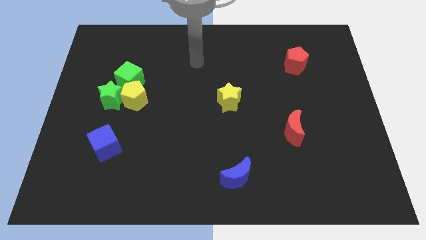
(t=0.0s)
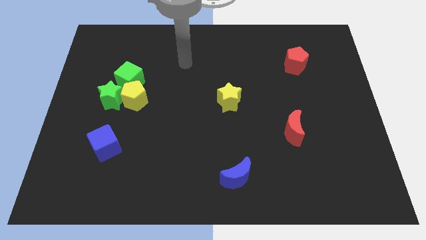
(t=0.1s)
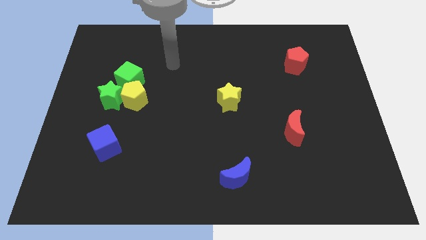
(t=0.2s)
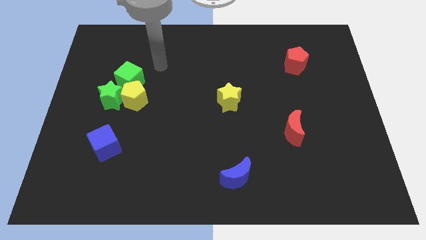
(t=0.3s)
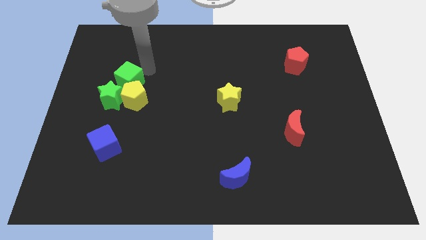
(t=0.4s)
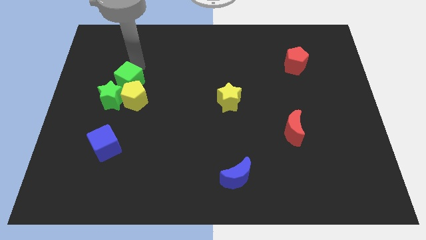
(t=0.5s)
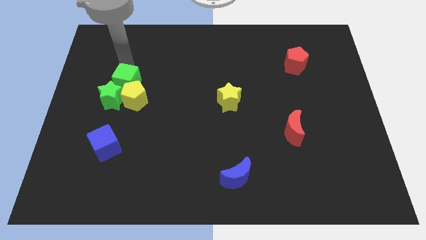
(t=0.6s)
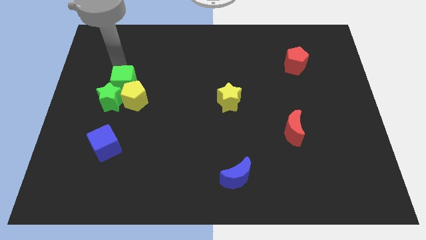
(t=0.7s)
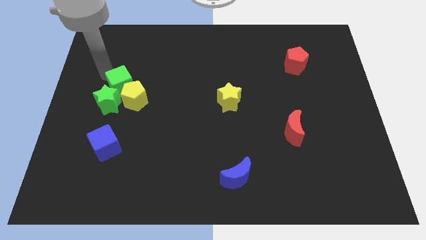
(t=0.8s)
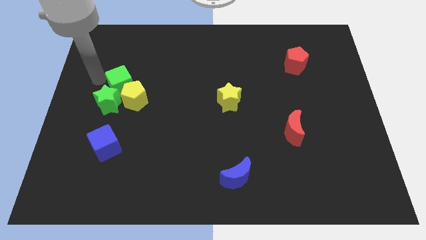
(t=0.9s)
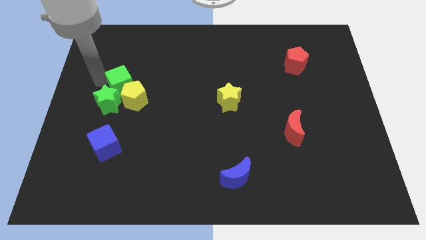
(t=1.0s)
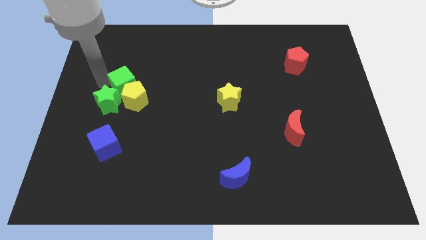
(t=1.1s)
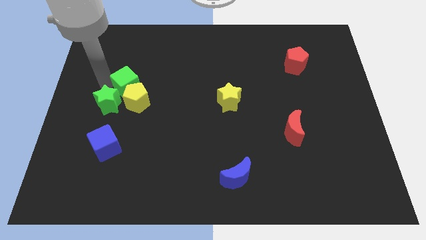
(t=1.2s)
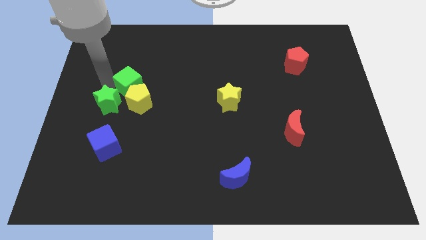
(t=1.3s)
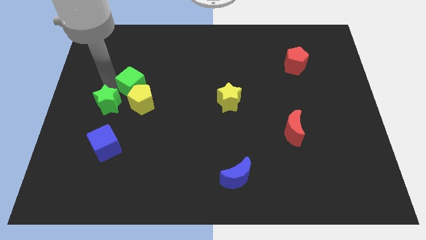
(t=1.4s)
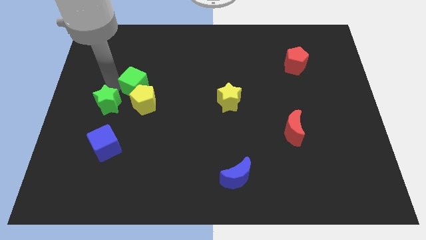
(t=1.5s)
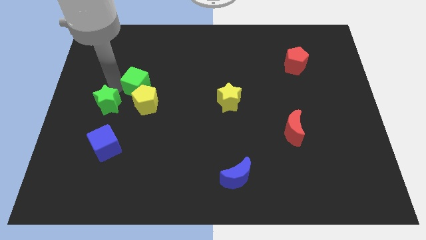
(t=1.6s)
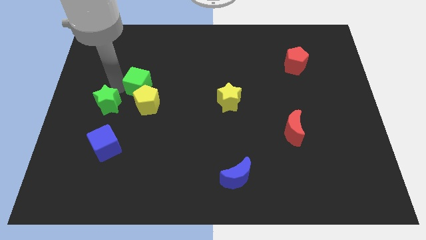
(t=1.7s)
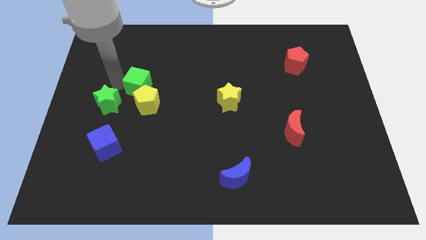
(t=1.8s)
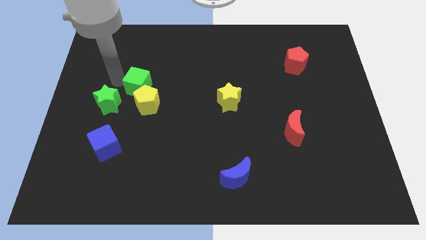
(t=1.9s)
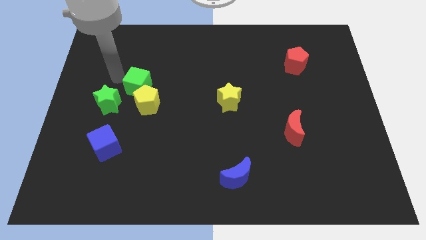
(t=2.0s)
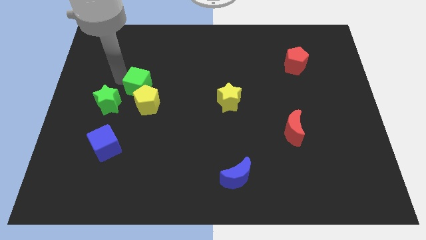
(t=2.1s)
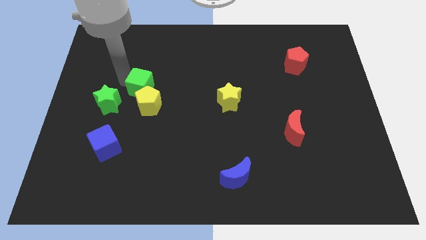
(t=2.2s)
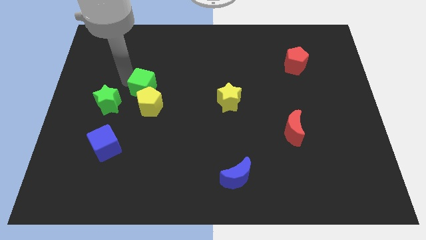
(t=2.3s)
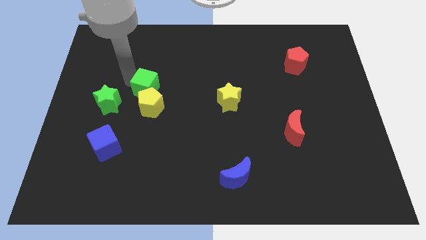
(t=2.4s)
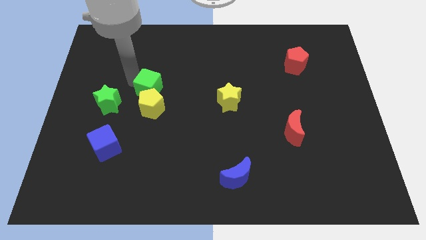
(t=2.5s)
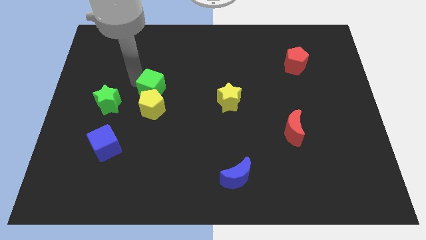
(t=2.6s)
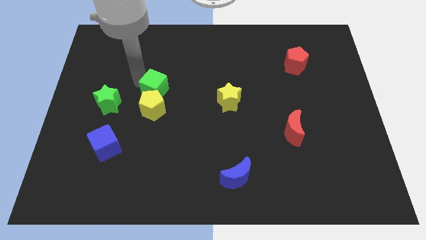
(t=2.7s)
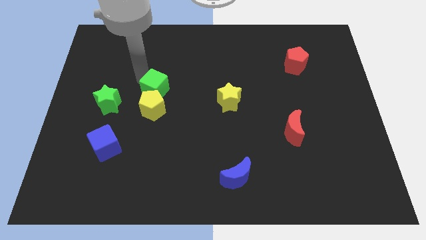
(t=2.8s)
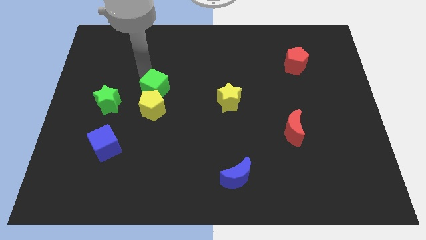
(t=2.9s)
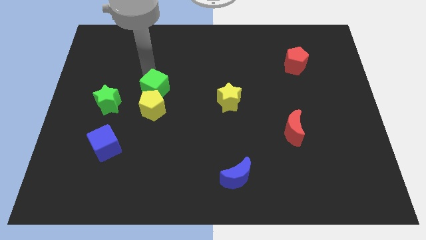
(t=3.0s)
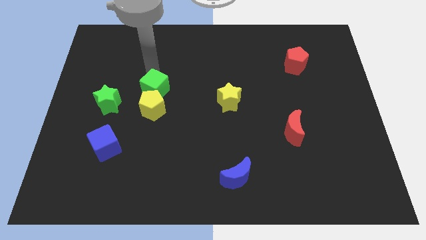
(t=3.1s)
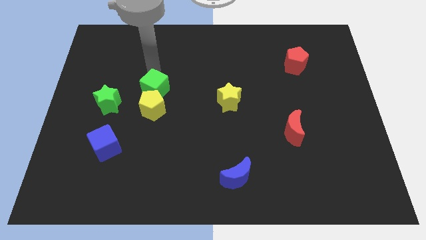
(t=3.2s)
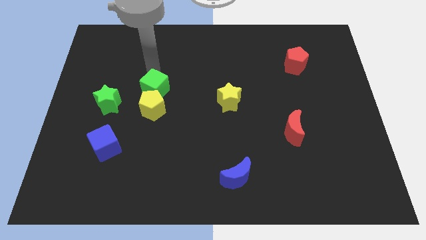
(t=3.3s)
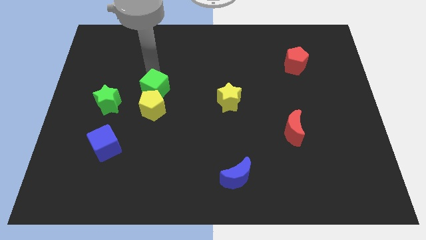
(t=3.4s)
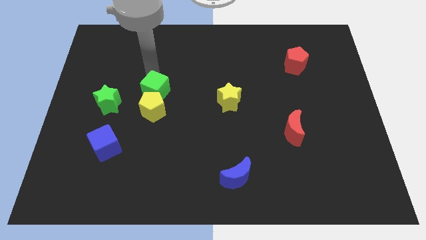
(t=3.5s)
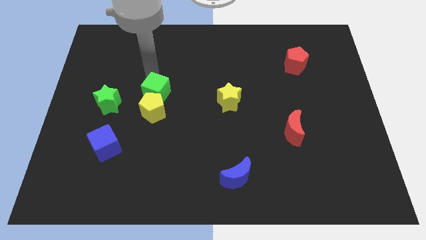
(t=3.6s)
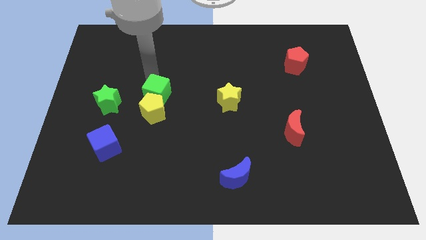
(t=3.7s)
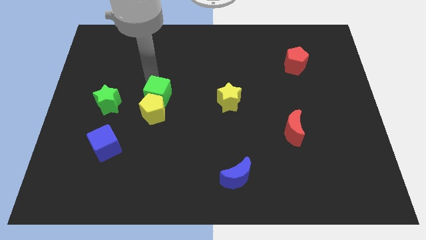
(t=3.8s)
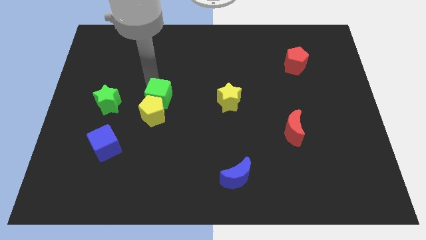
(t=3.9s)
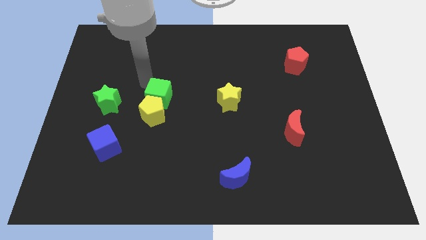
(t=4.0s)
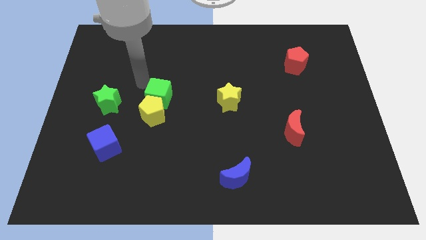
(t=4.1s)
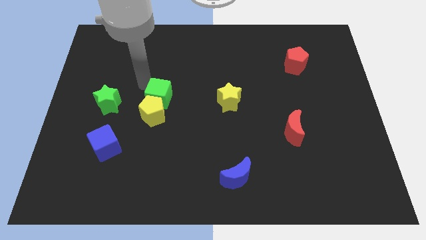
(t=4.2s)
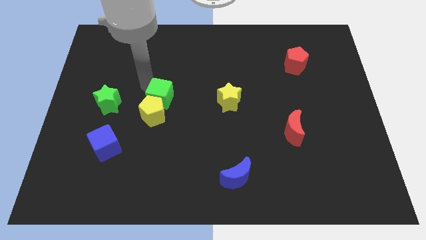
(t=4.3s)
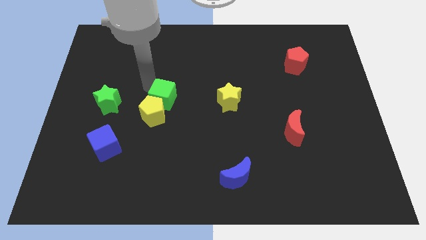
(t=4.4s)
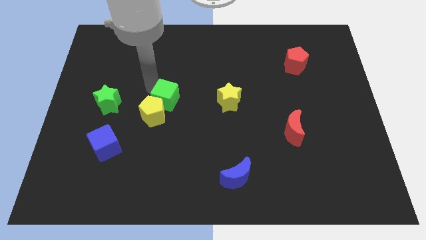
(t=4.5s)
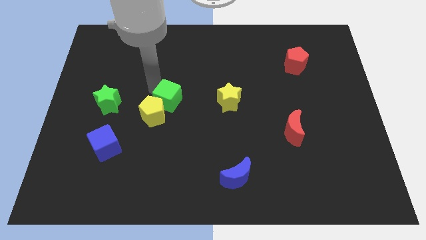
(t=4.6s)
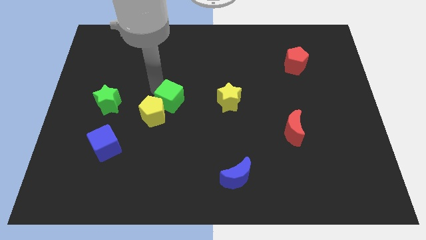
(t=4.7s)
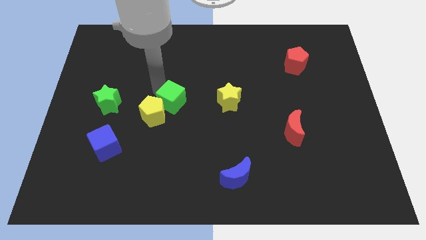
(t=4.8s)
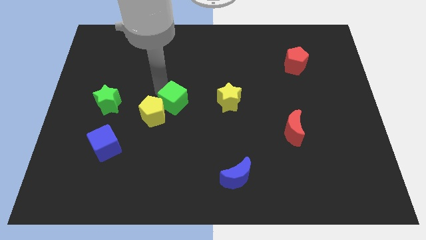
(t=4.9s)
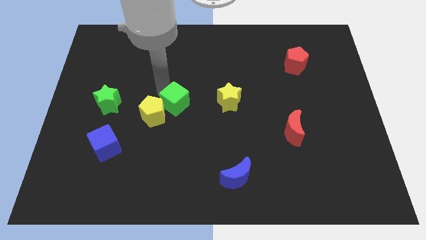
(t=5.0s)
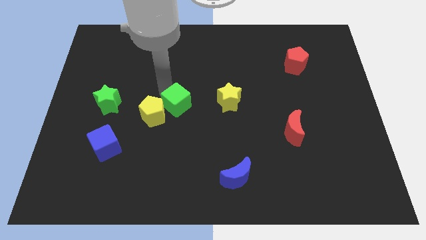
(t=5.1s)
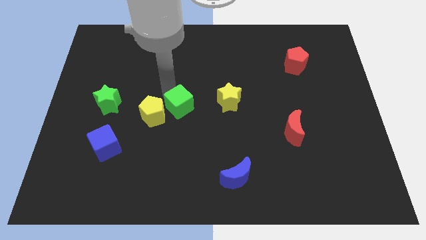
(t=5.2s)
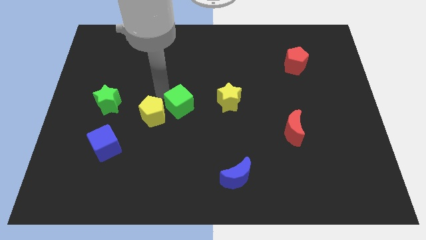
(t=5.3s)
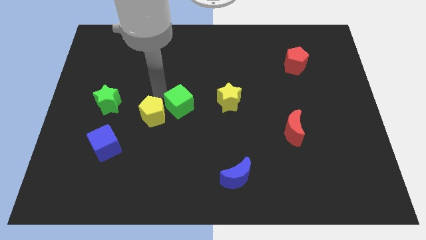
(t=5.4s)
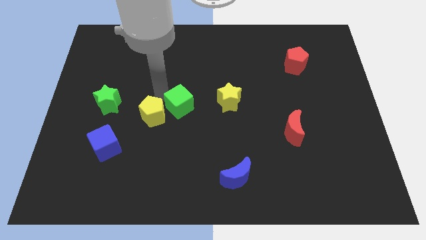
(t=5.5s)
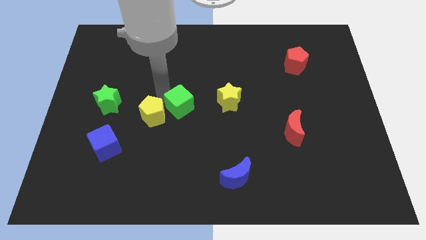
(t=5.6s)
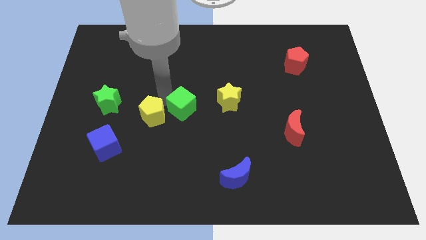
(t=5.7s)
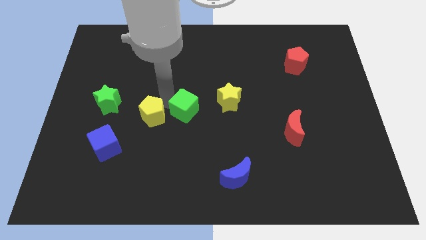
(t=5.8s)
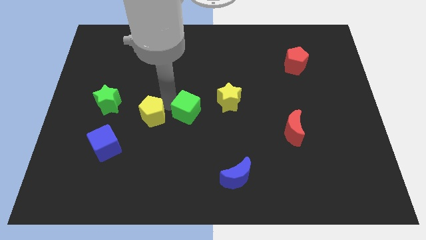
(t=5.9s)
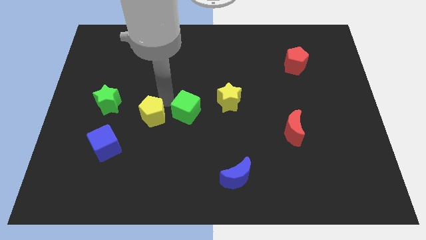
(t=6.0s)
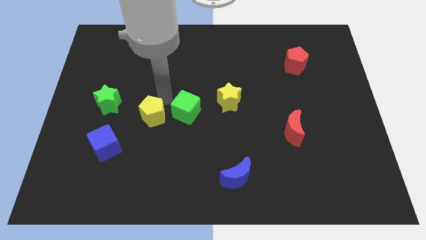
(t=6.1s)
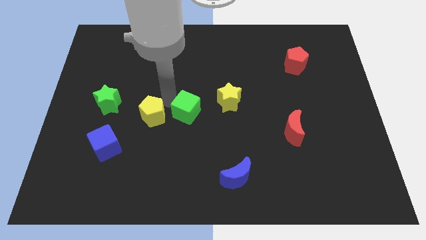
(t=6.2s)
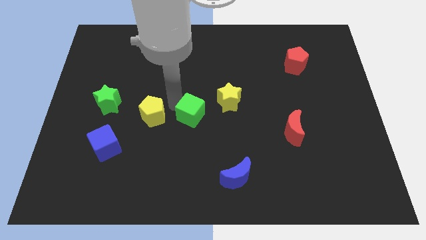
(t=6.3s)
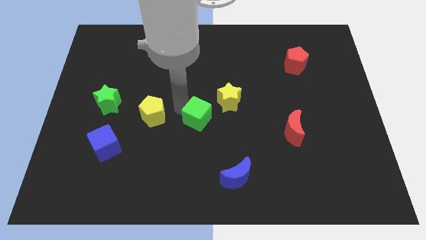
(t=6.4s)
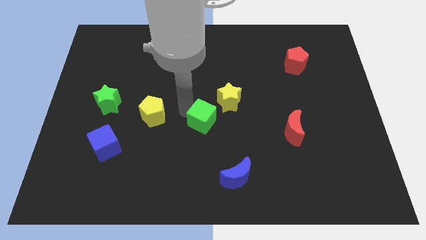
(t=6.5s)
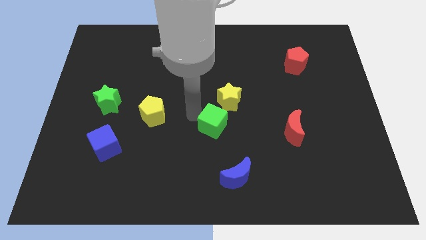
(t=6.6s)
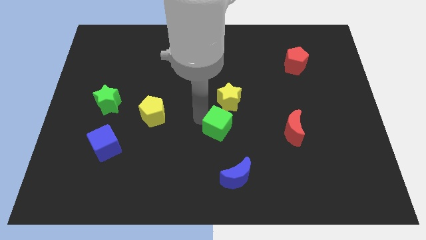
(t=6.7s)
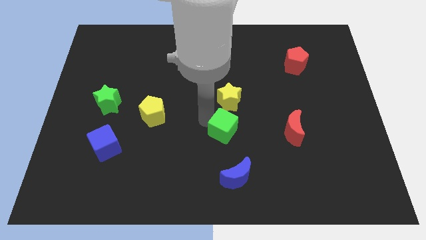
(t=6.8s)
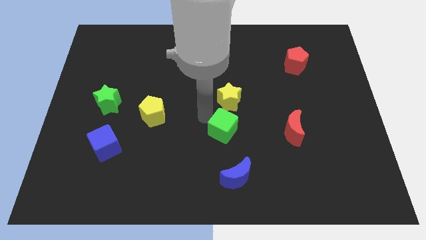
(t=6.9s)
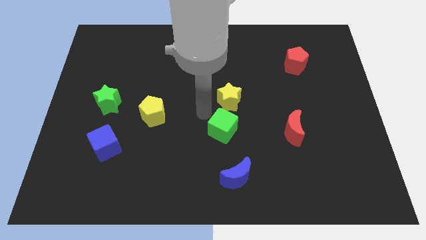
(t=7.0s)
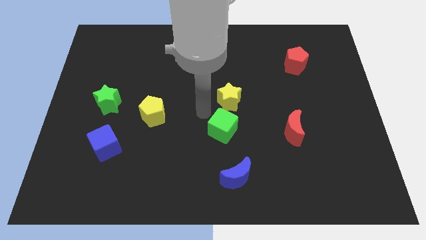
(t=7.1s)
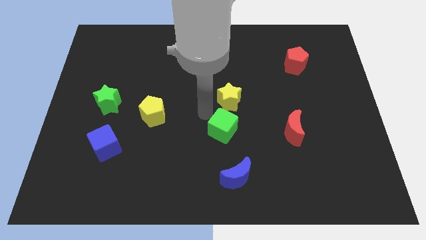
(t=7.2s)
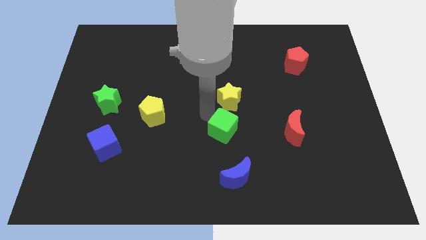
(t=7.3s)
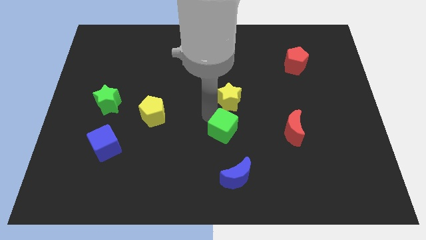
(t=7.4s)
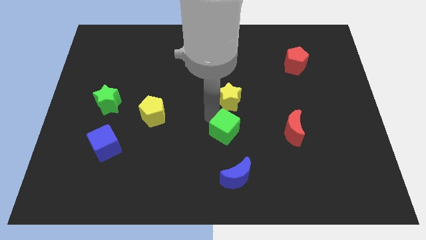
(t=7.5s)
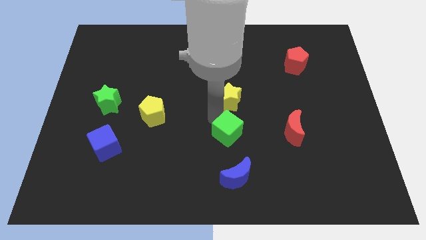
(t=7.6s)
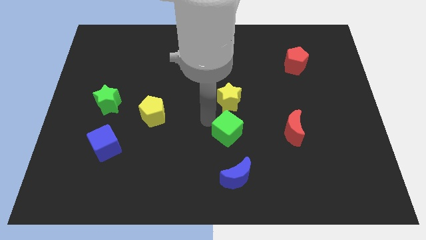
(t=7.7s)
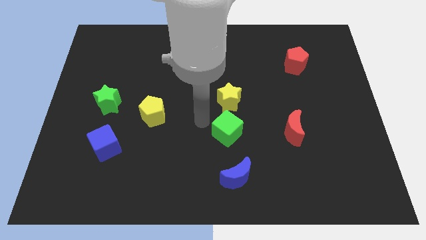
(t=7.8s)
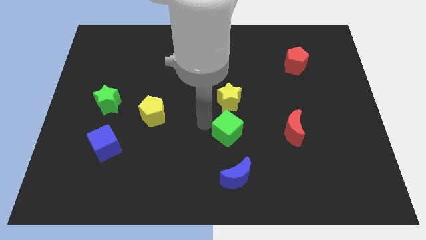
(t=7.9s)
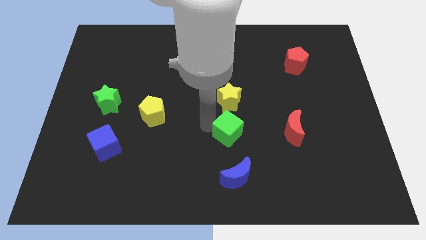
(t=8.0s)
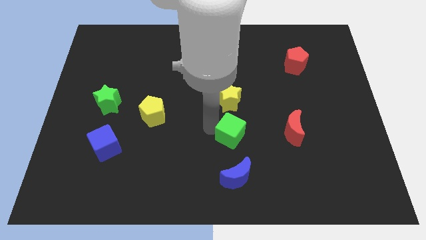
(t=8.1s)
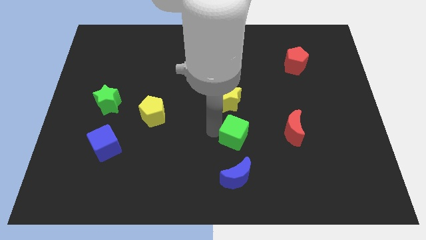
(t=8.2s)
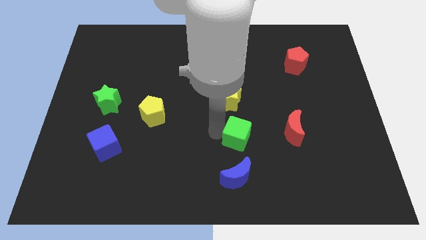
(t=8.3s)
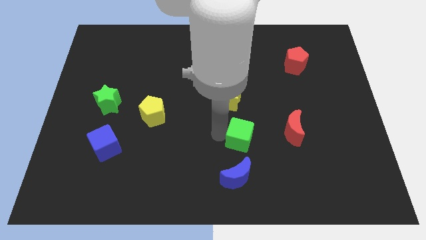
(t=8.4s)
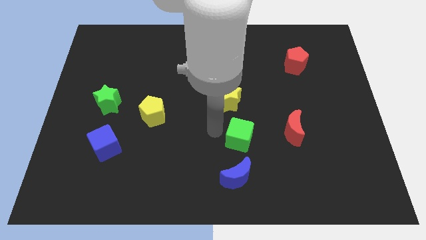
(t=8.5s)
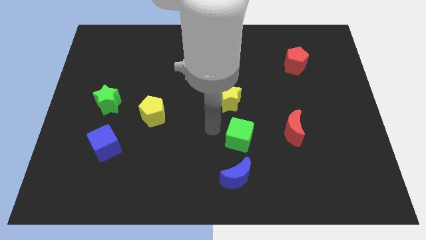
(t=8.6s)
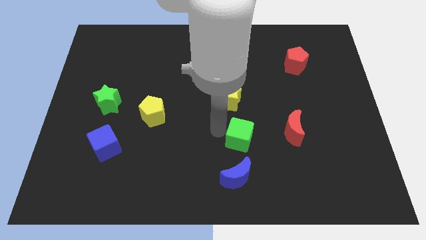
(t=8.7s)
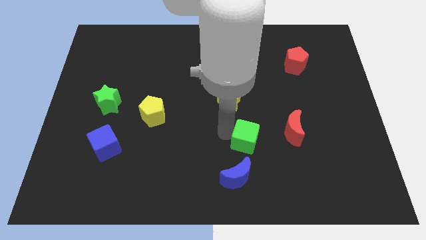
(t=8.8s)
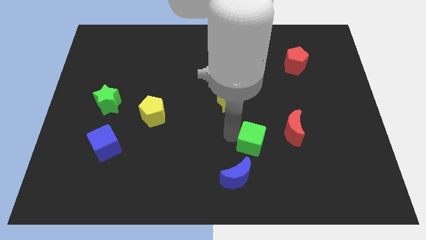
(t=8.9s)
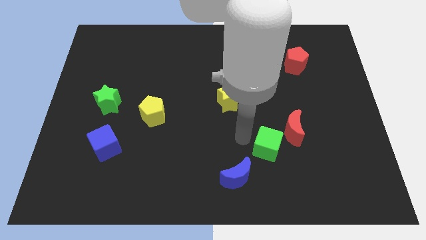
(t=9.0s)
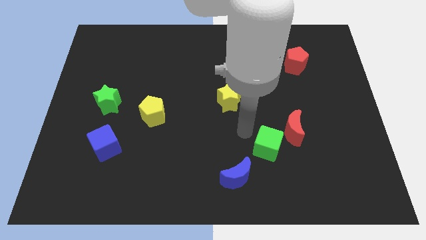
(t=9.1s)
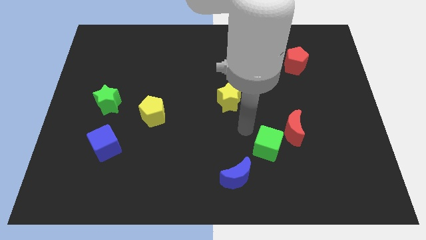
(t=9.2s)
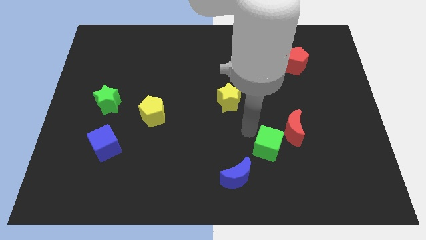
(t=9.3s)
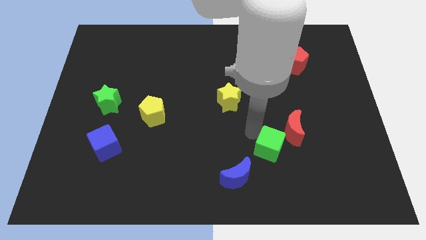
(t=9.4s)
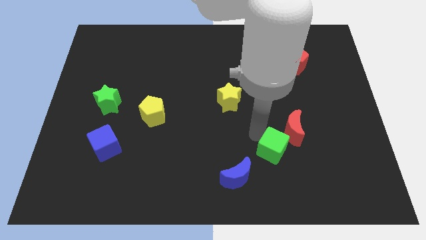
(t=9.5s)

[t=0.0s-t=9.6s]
move the green cube below the red moon
